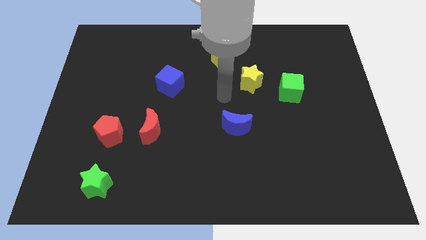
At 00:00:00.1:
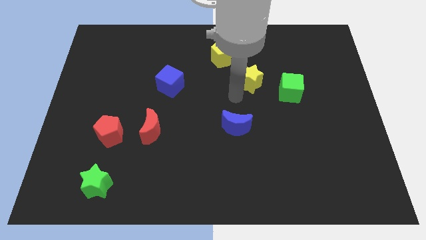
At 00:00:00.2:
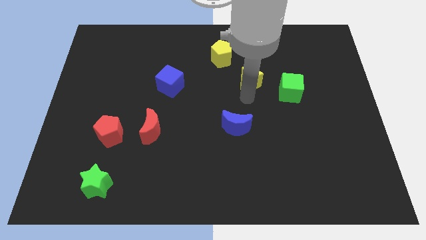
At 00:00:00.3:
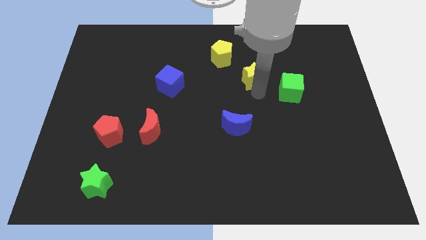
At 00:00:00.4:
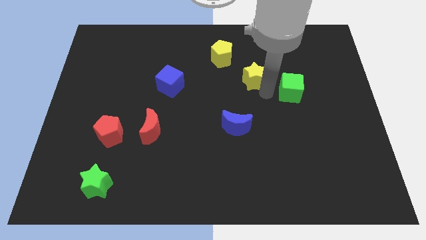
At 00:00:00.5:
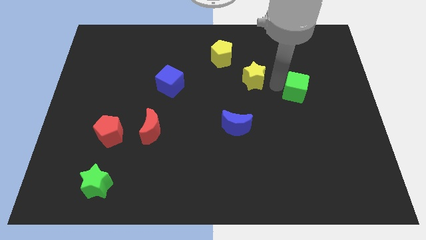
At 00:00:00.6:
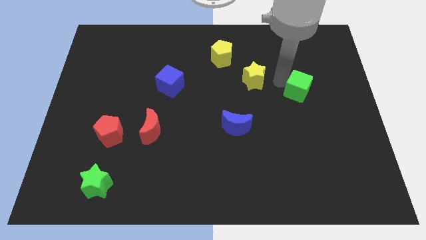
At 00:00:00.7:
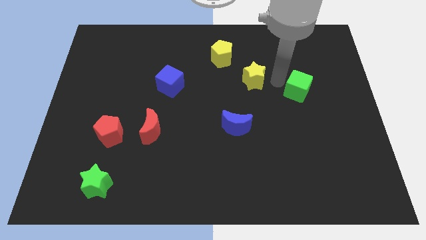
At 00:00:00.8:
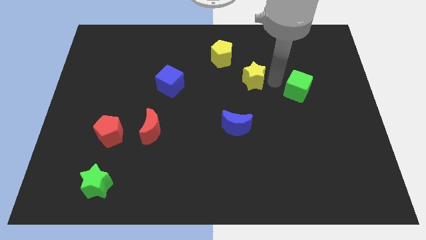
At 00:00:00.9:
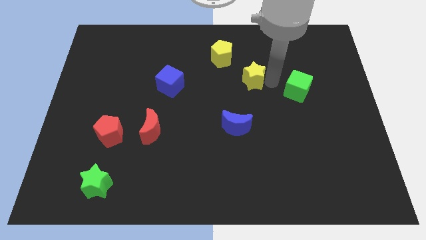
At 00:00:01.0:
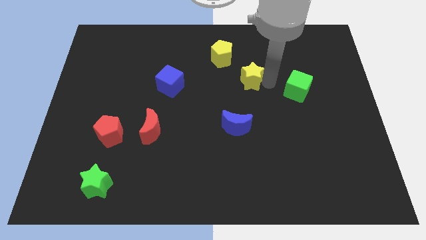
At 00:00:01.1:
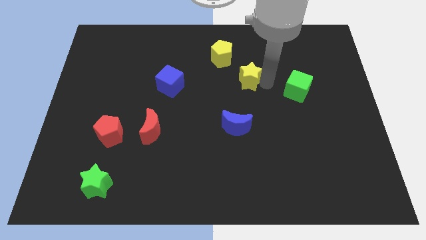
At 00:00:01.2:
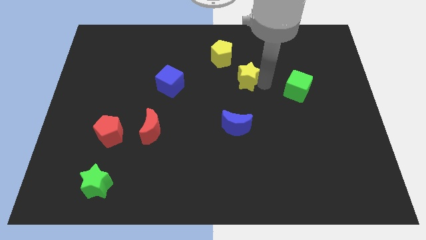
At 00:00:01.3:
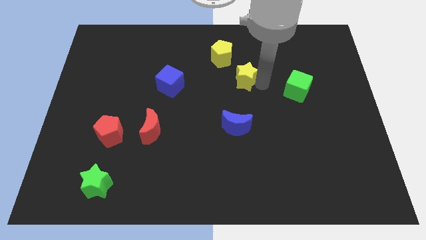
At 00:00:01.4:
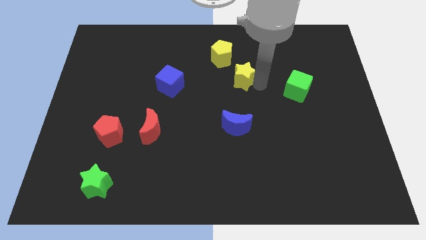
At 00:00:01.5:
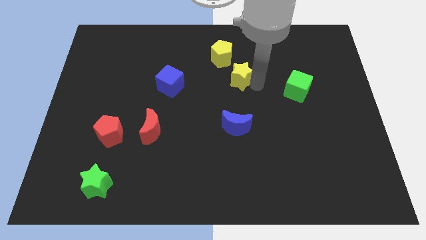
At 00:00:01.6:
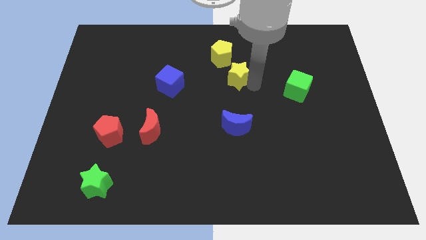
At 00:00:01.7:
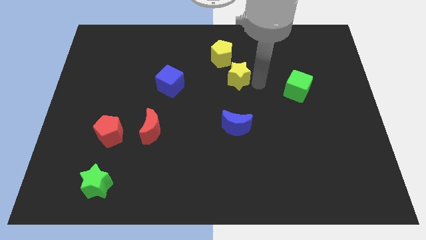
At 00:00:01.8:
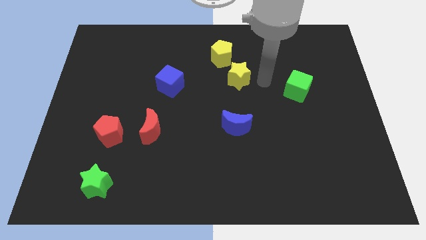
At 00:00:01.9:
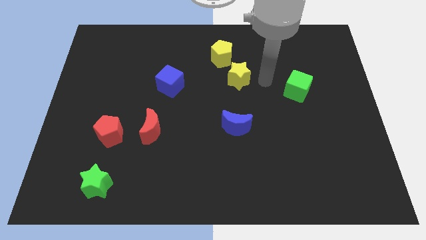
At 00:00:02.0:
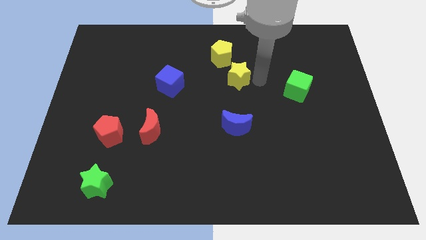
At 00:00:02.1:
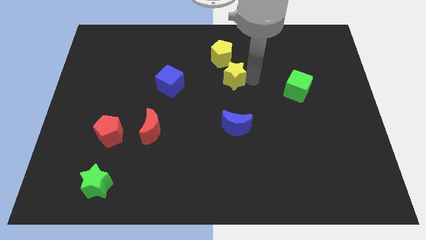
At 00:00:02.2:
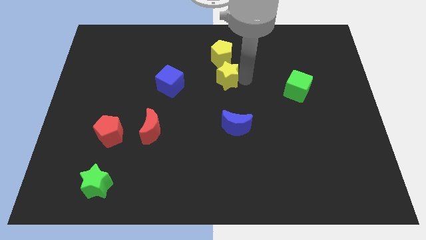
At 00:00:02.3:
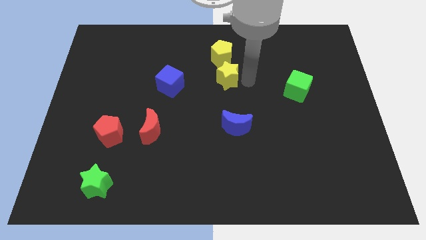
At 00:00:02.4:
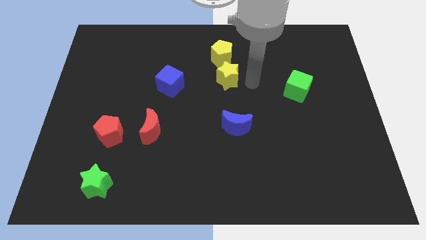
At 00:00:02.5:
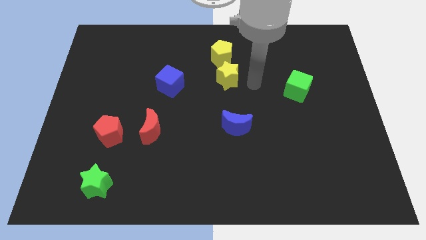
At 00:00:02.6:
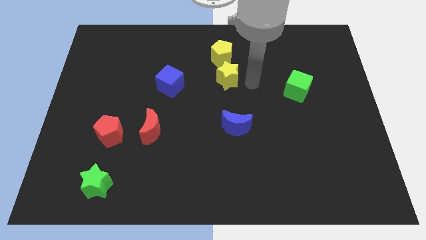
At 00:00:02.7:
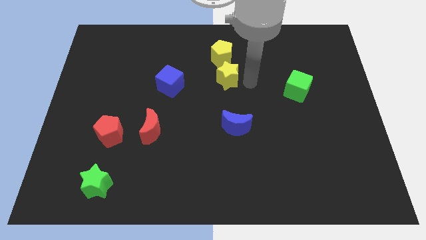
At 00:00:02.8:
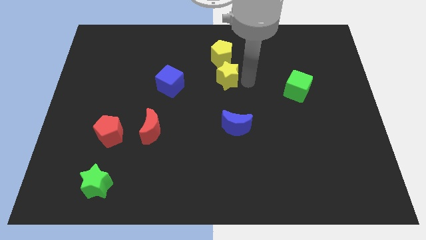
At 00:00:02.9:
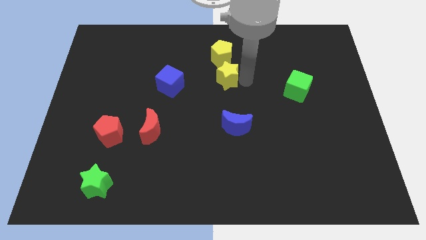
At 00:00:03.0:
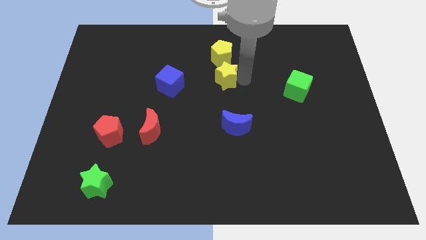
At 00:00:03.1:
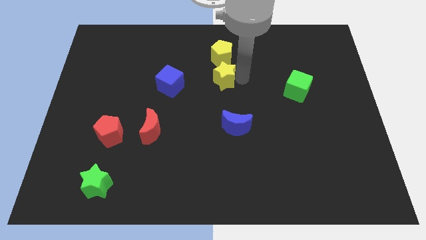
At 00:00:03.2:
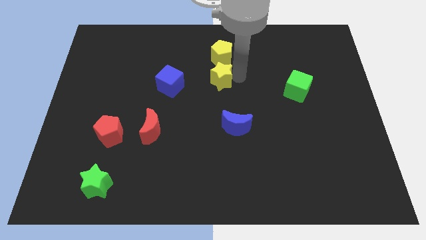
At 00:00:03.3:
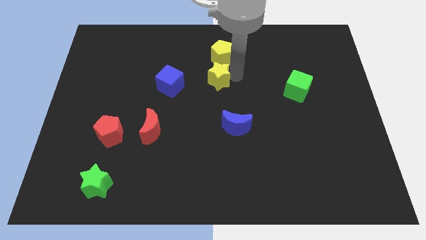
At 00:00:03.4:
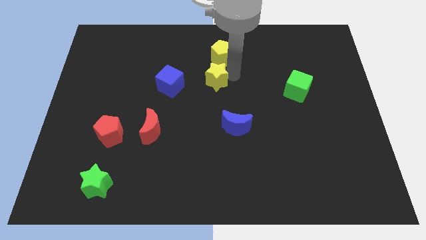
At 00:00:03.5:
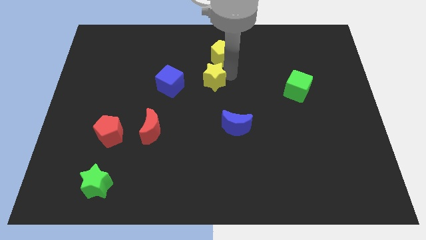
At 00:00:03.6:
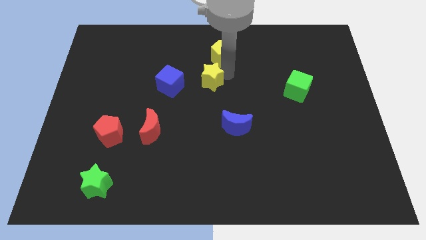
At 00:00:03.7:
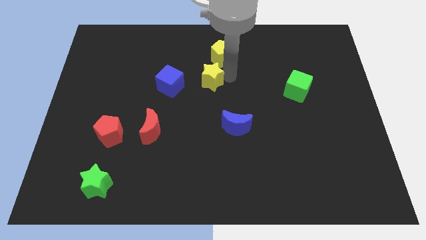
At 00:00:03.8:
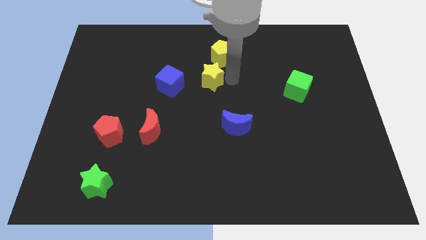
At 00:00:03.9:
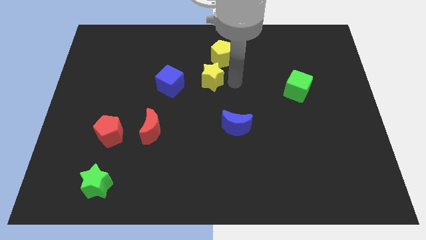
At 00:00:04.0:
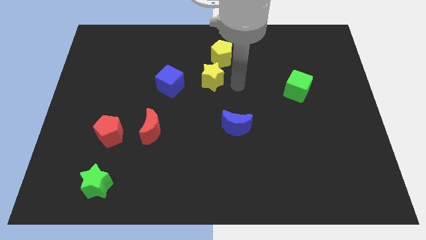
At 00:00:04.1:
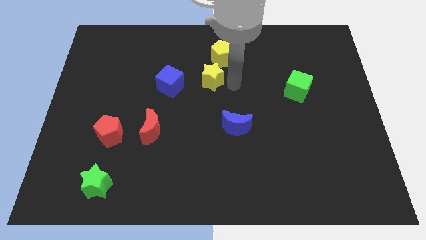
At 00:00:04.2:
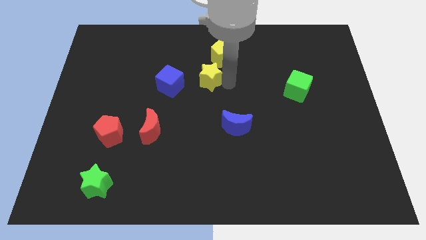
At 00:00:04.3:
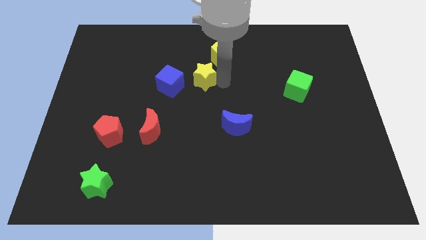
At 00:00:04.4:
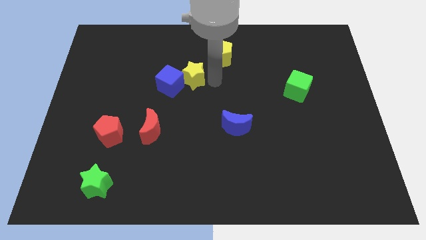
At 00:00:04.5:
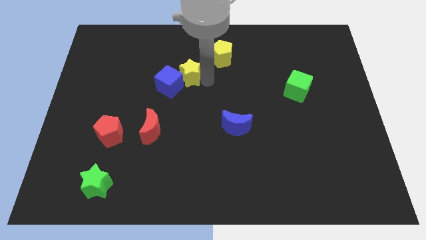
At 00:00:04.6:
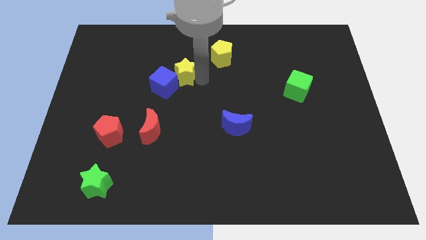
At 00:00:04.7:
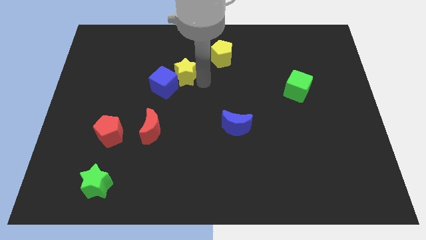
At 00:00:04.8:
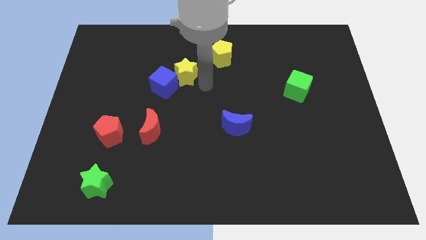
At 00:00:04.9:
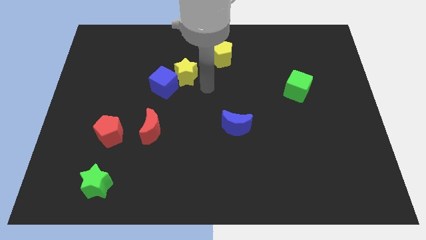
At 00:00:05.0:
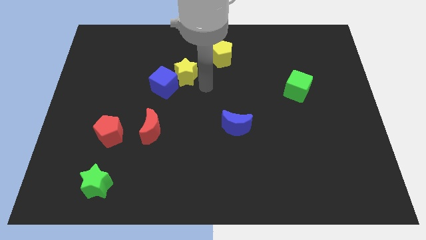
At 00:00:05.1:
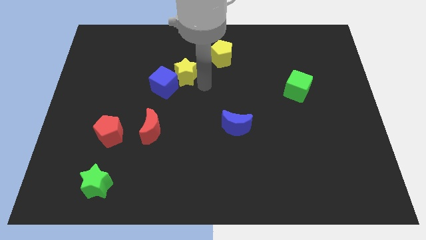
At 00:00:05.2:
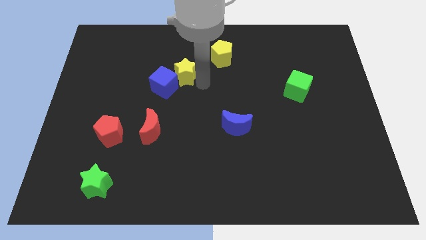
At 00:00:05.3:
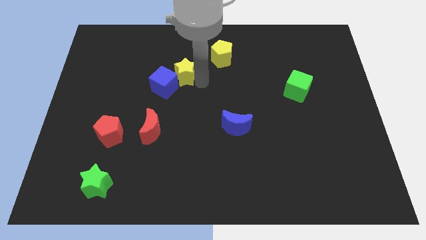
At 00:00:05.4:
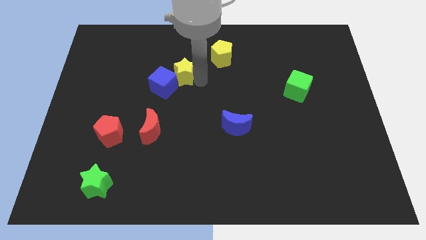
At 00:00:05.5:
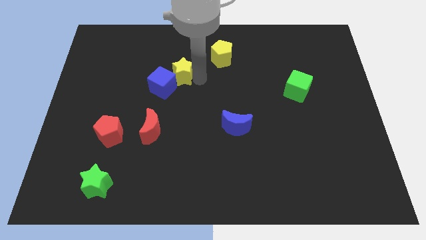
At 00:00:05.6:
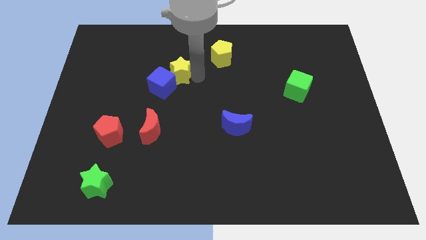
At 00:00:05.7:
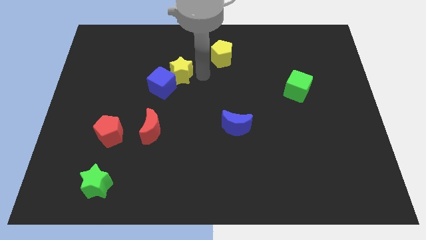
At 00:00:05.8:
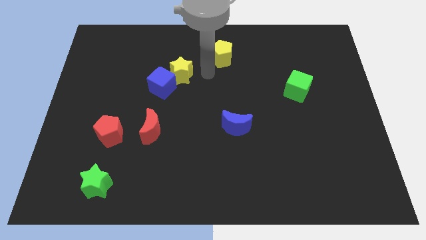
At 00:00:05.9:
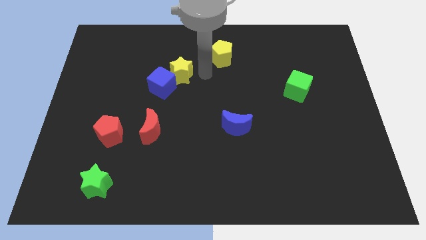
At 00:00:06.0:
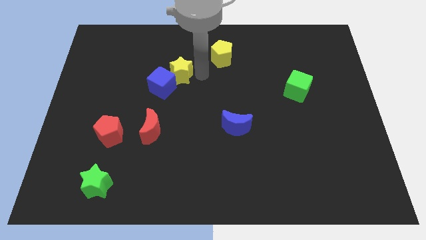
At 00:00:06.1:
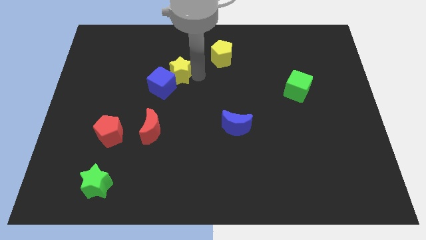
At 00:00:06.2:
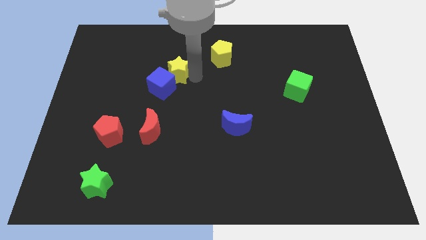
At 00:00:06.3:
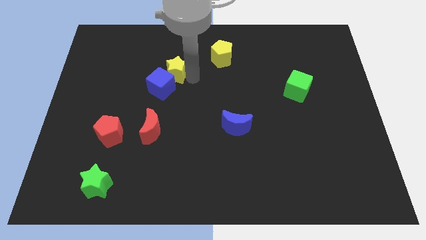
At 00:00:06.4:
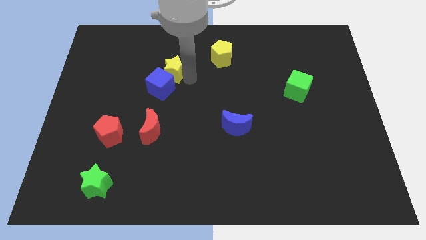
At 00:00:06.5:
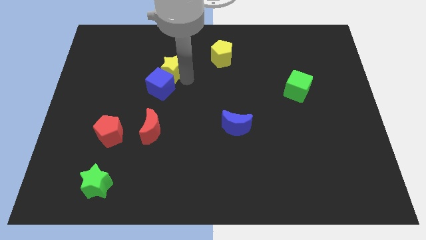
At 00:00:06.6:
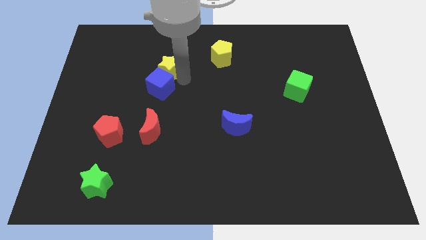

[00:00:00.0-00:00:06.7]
move the yellow star to the left

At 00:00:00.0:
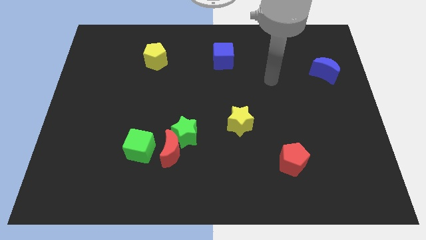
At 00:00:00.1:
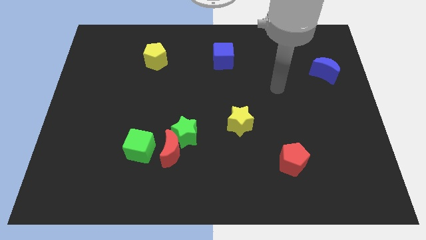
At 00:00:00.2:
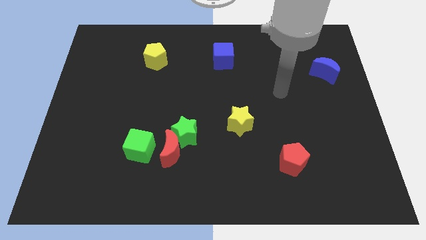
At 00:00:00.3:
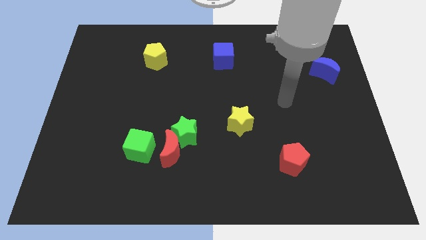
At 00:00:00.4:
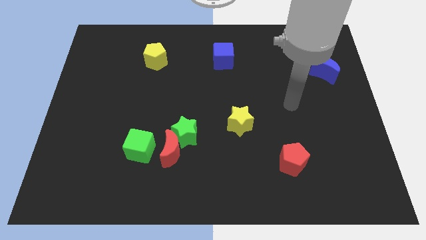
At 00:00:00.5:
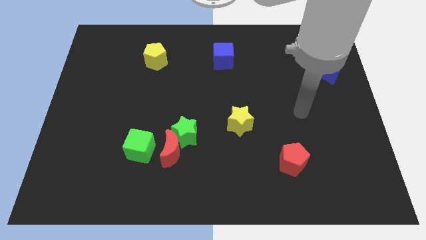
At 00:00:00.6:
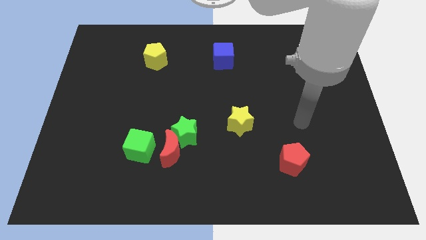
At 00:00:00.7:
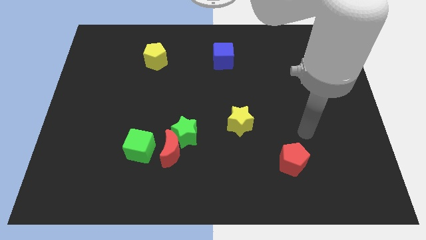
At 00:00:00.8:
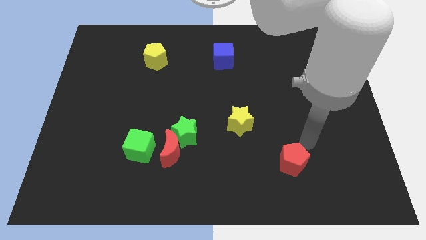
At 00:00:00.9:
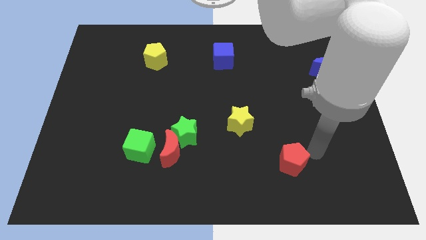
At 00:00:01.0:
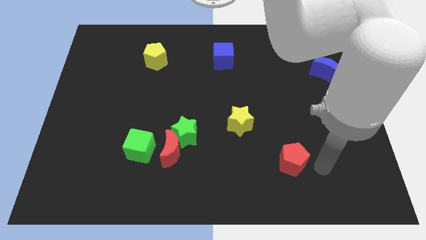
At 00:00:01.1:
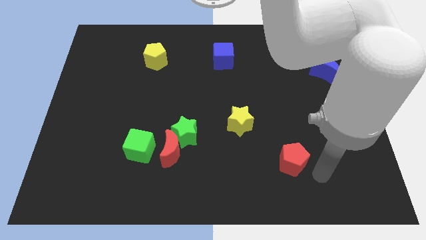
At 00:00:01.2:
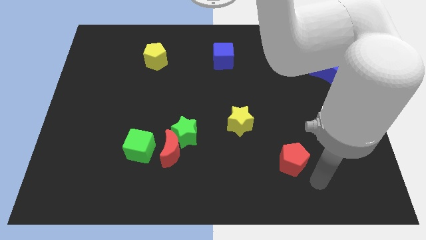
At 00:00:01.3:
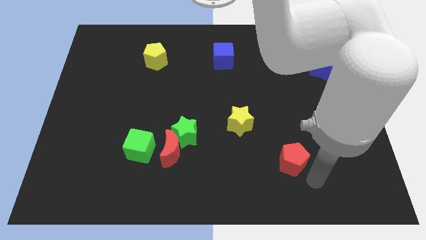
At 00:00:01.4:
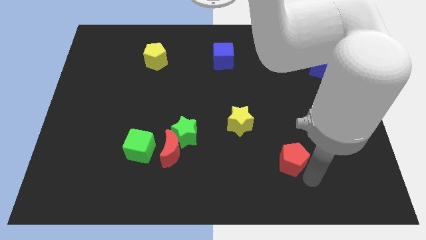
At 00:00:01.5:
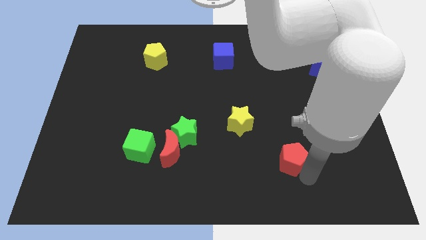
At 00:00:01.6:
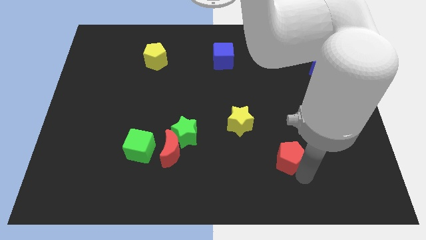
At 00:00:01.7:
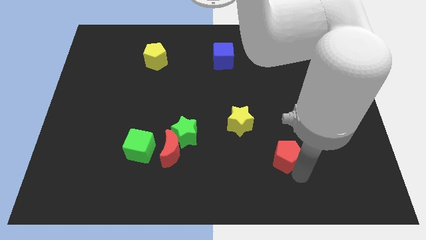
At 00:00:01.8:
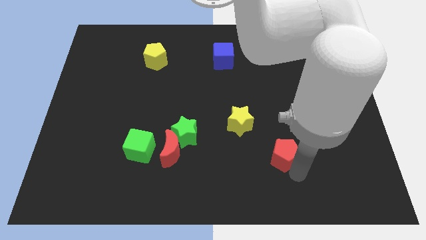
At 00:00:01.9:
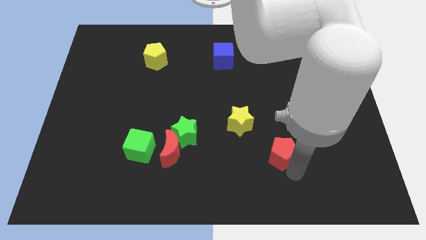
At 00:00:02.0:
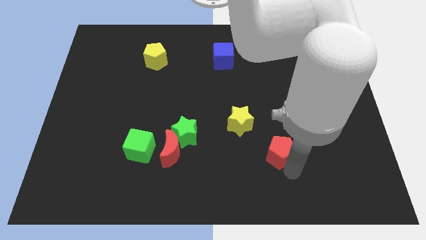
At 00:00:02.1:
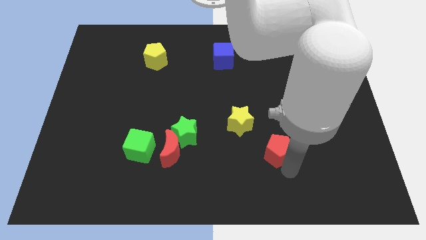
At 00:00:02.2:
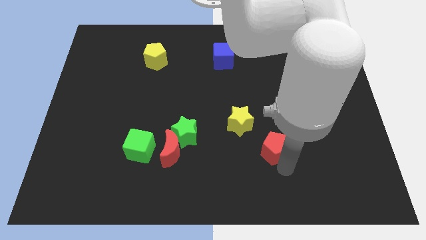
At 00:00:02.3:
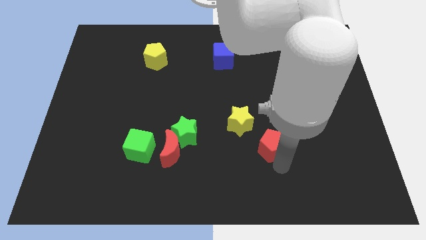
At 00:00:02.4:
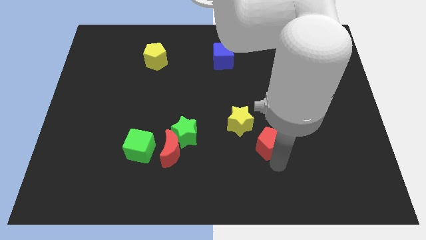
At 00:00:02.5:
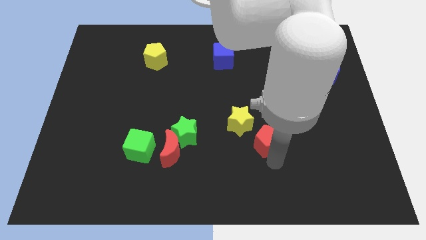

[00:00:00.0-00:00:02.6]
slightly push the red pentagon up and then to the left
